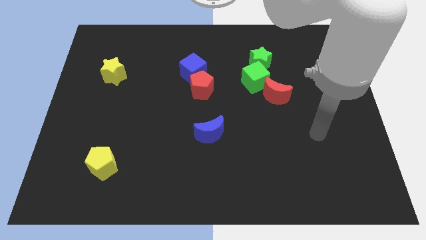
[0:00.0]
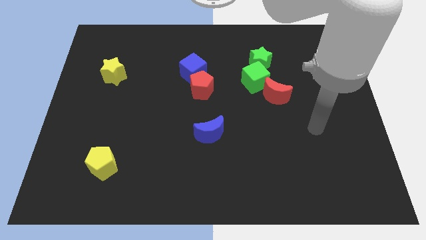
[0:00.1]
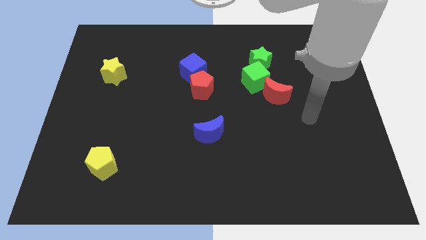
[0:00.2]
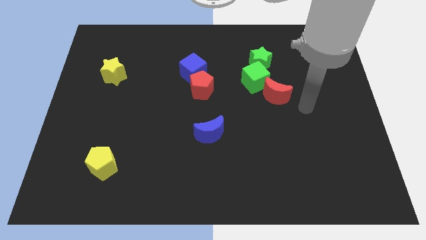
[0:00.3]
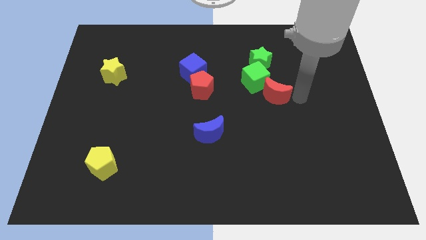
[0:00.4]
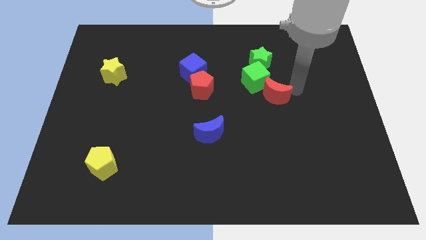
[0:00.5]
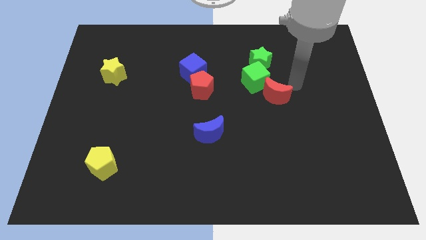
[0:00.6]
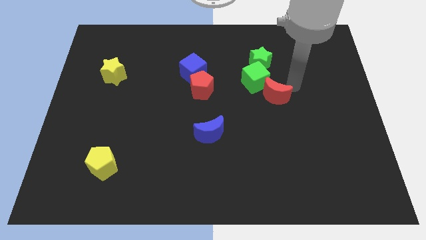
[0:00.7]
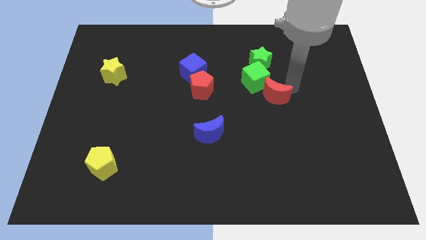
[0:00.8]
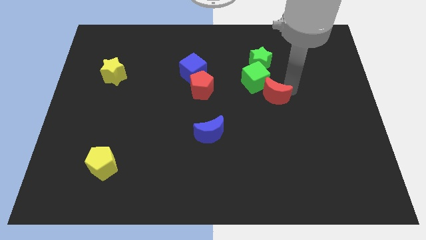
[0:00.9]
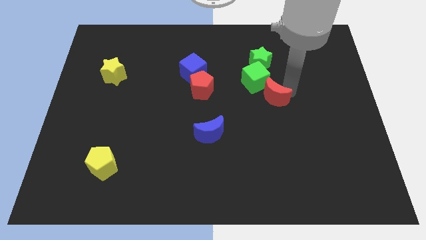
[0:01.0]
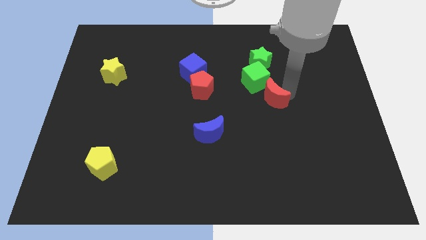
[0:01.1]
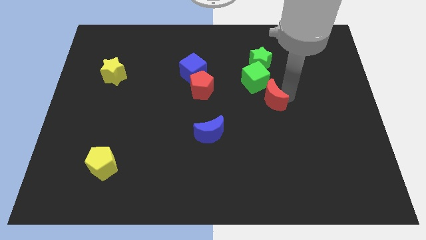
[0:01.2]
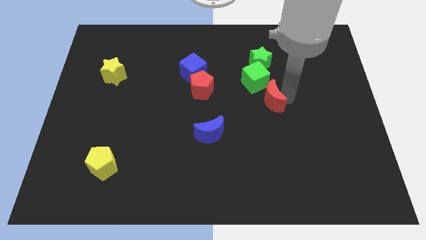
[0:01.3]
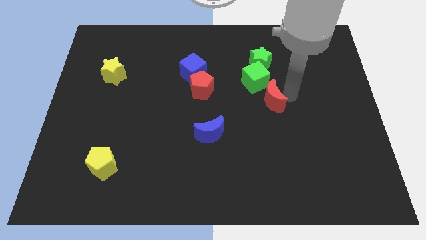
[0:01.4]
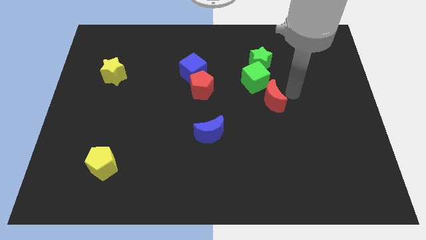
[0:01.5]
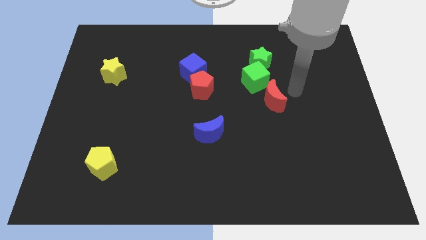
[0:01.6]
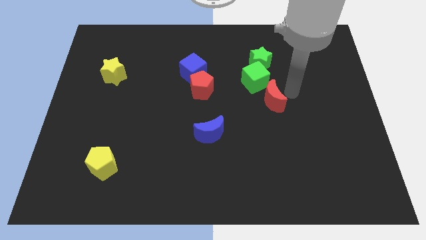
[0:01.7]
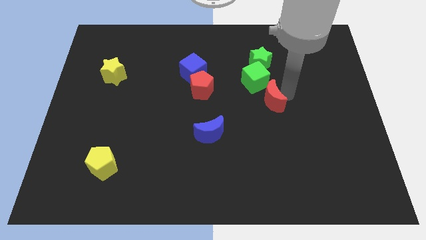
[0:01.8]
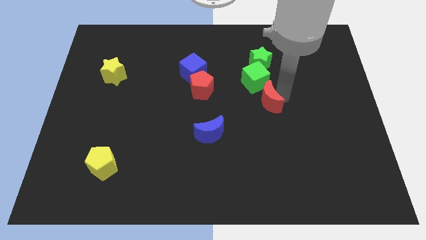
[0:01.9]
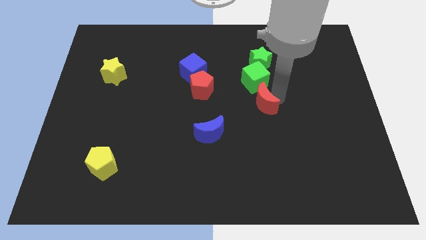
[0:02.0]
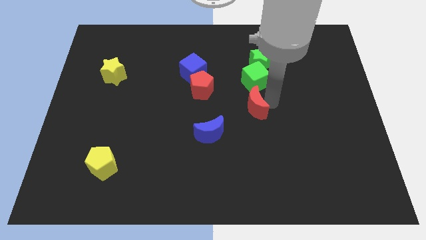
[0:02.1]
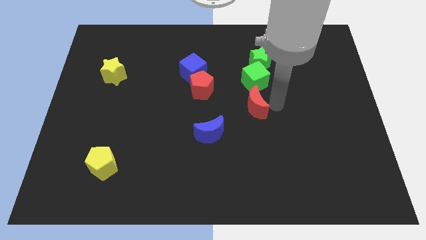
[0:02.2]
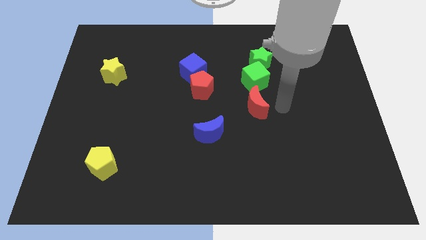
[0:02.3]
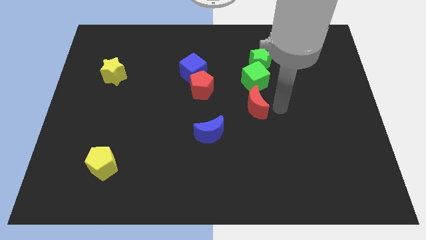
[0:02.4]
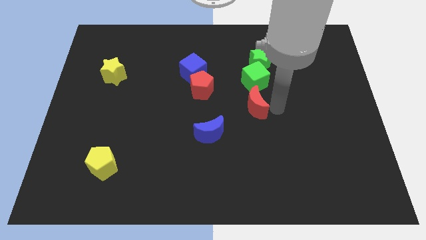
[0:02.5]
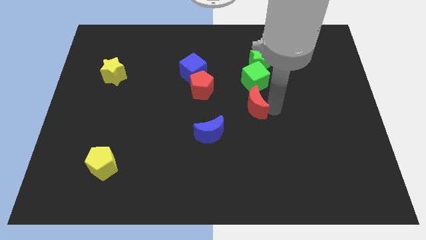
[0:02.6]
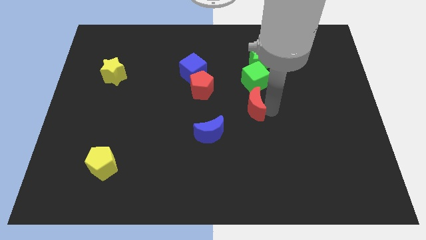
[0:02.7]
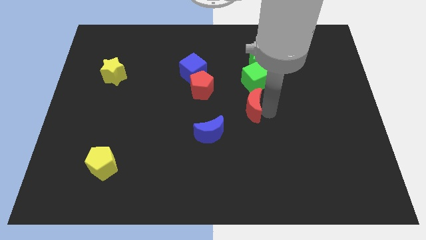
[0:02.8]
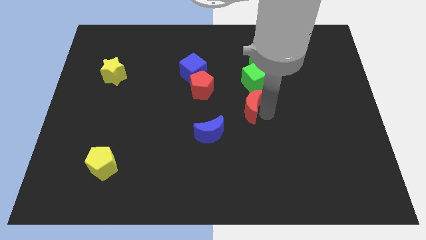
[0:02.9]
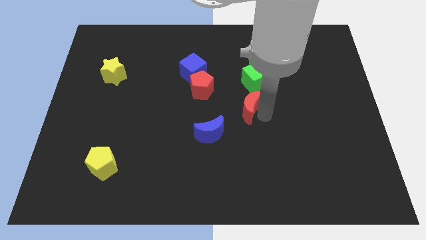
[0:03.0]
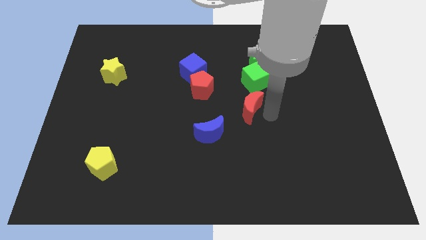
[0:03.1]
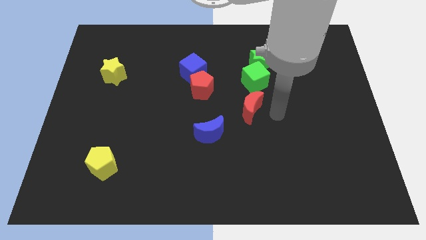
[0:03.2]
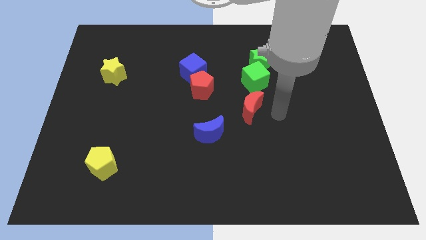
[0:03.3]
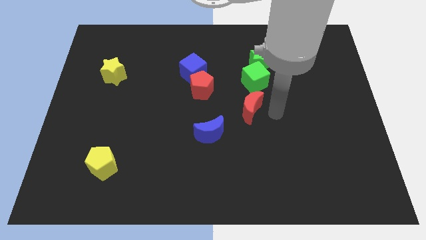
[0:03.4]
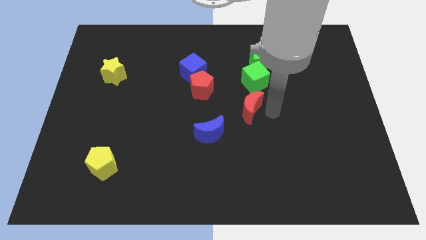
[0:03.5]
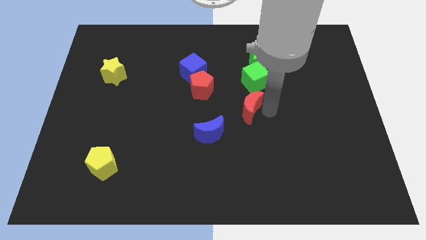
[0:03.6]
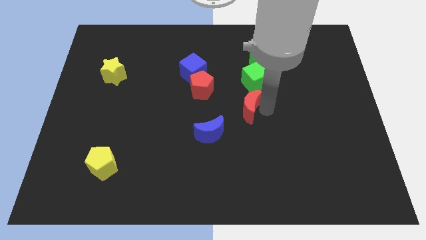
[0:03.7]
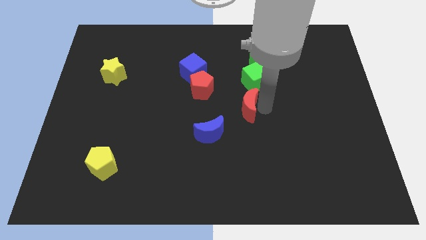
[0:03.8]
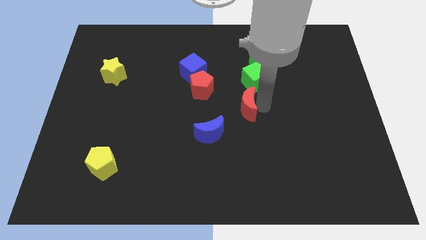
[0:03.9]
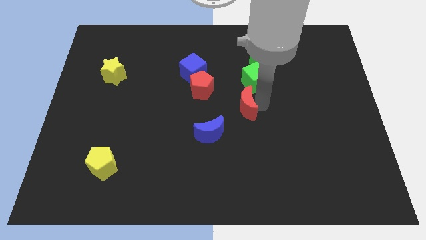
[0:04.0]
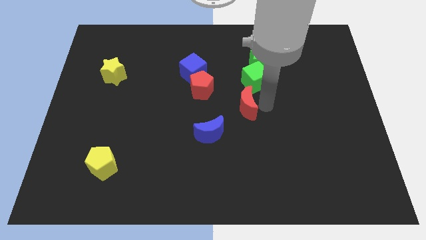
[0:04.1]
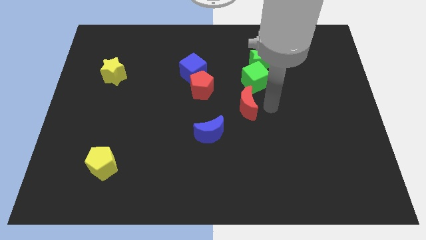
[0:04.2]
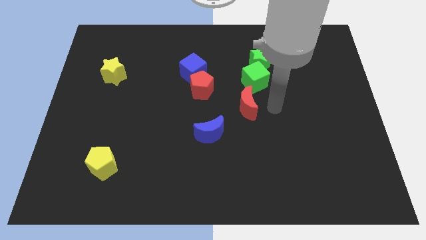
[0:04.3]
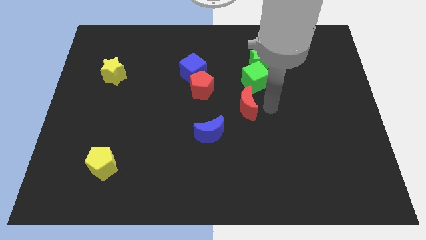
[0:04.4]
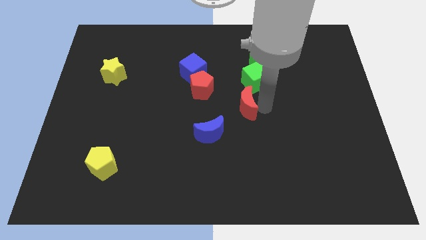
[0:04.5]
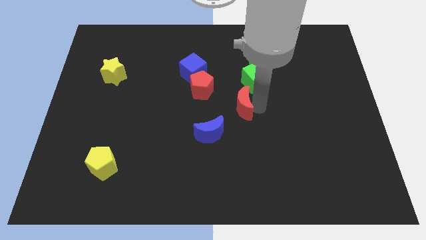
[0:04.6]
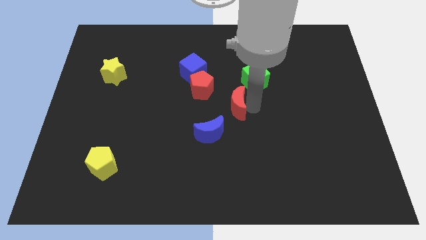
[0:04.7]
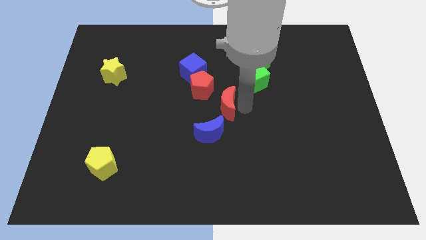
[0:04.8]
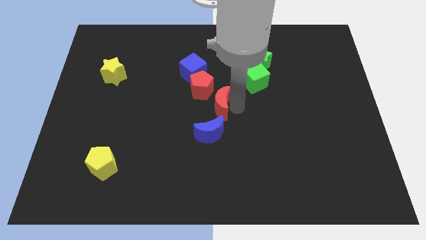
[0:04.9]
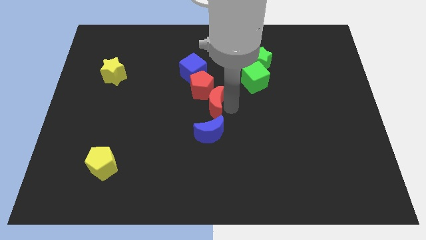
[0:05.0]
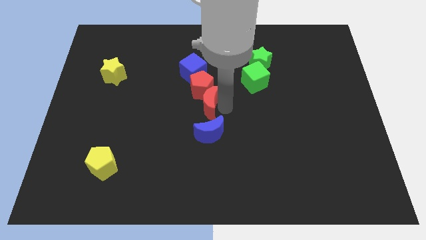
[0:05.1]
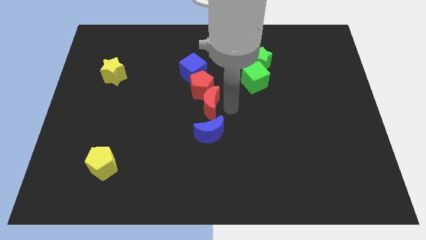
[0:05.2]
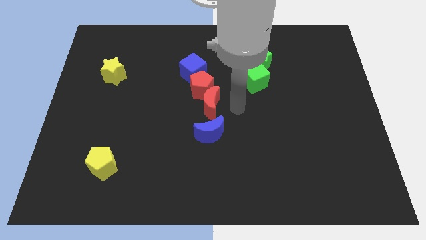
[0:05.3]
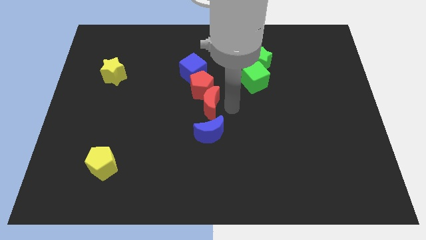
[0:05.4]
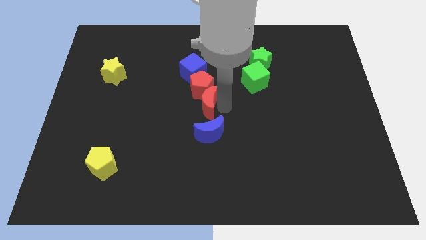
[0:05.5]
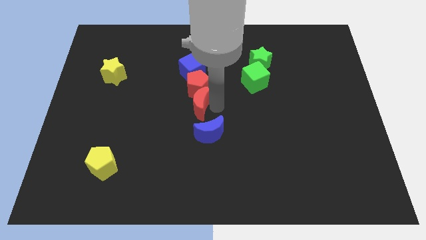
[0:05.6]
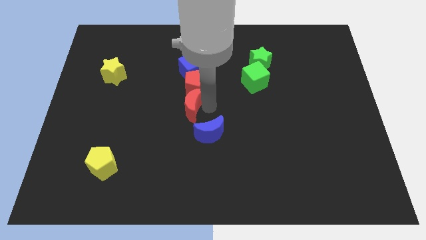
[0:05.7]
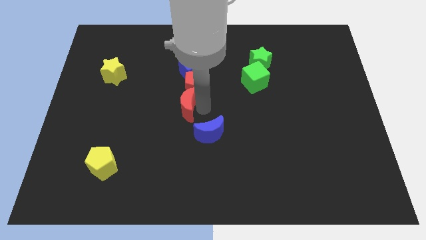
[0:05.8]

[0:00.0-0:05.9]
push the red moon to the left

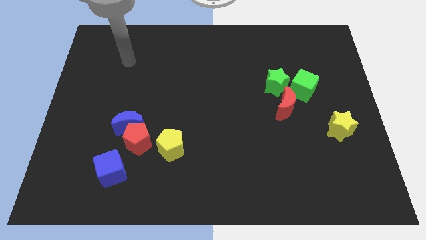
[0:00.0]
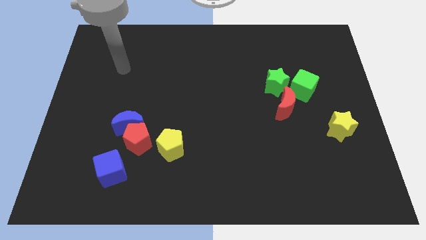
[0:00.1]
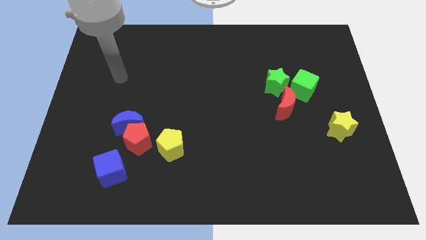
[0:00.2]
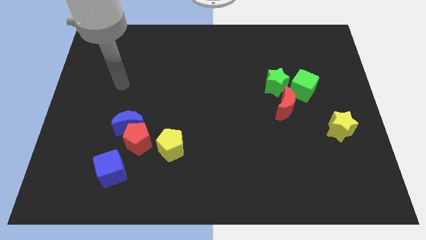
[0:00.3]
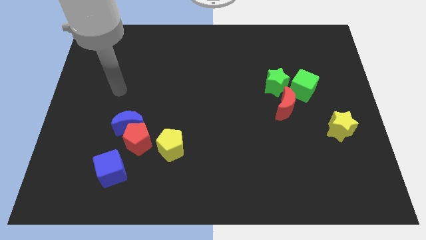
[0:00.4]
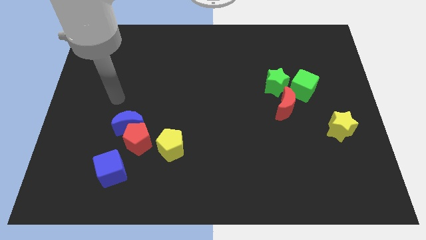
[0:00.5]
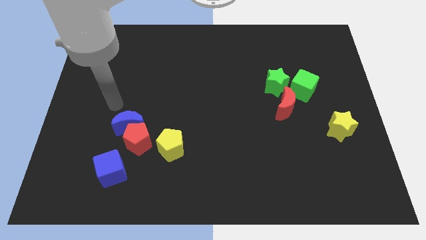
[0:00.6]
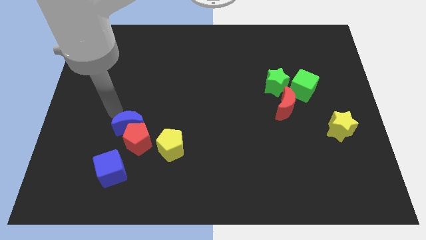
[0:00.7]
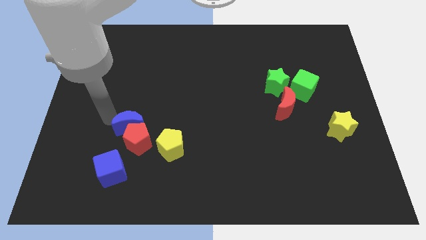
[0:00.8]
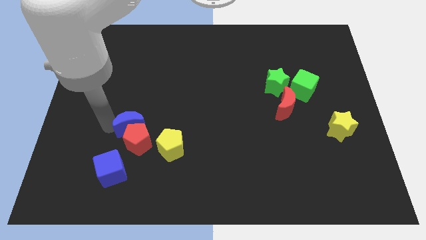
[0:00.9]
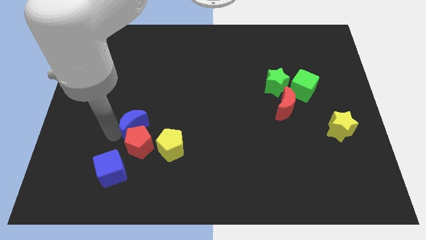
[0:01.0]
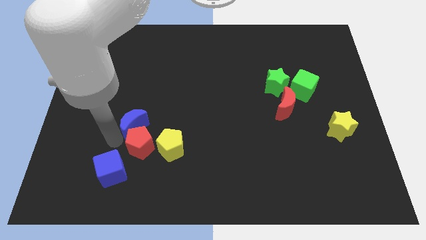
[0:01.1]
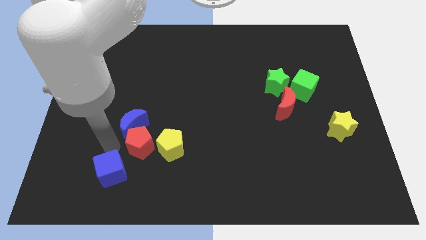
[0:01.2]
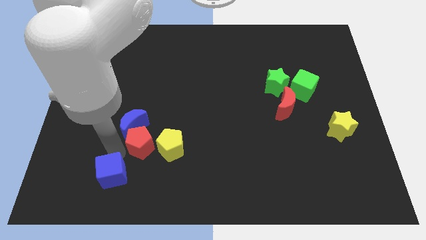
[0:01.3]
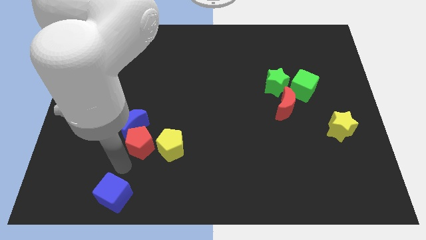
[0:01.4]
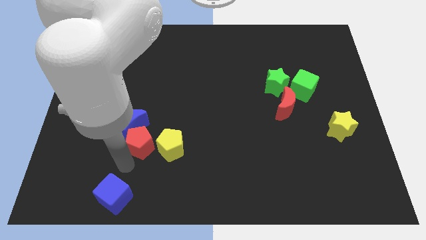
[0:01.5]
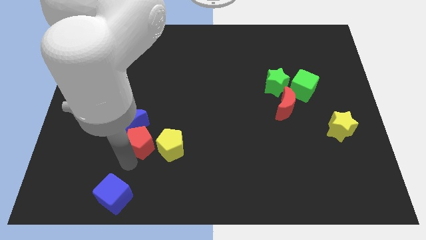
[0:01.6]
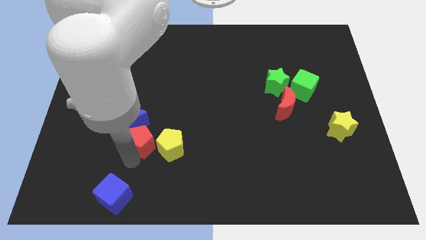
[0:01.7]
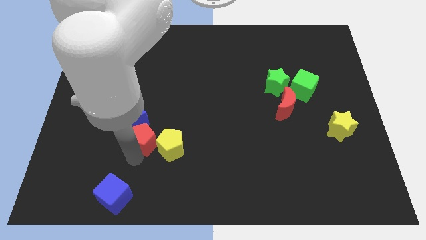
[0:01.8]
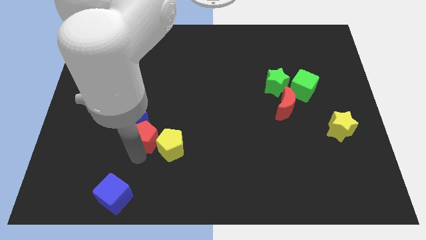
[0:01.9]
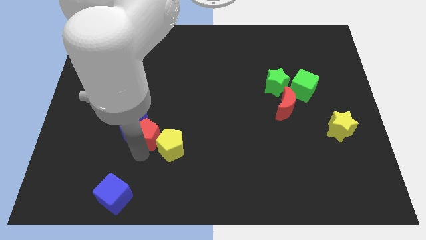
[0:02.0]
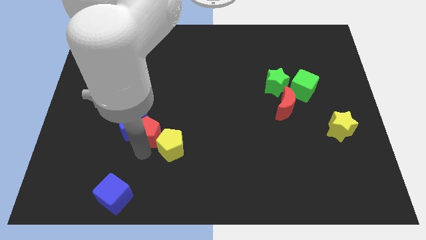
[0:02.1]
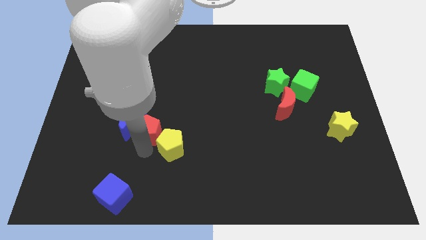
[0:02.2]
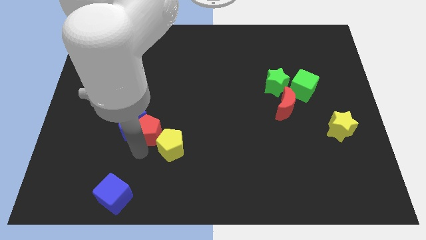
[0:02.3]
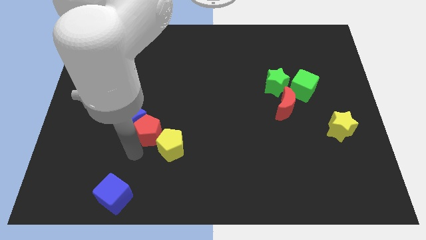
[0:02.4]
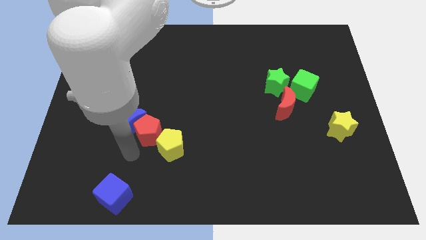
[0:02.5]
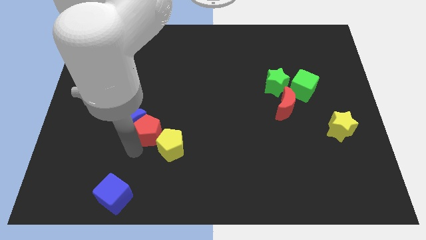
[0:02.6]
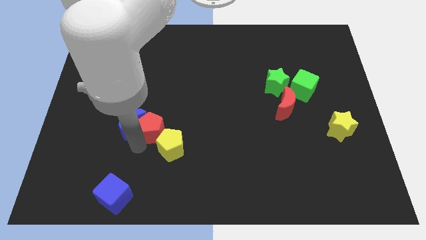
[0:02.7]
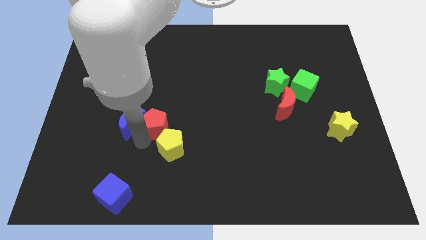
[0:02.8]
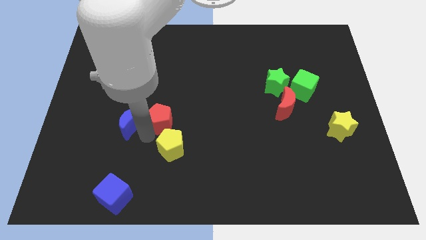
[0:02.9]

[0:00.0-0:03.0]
move the red pentagon a little bit up and to the right diagonally
